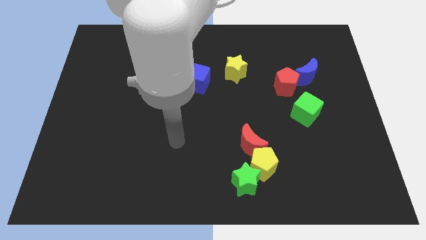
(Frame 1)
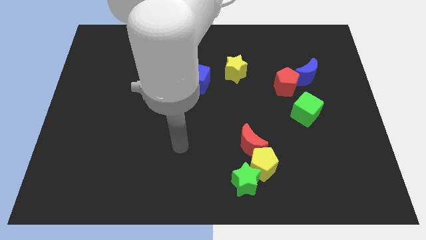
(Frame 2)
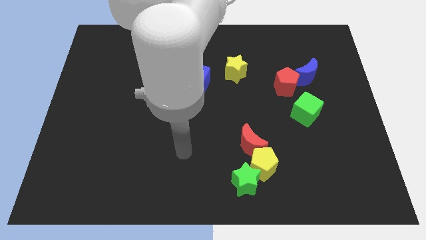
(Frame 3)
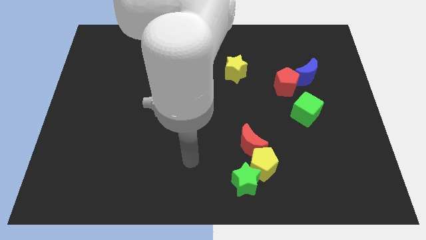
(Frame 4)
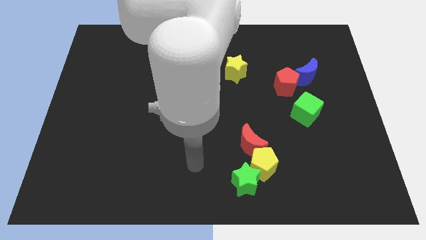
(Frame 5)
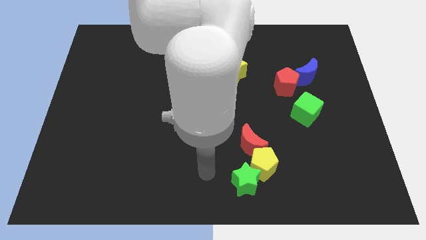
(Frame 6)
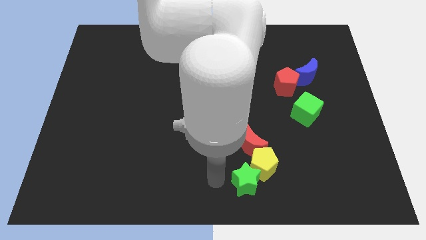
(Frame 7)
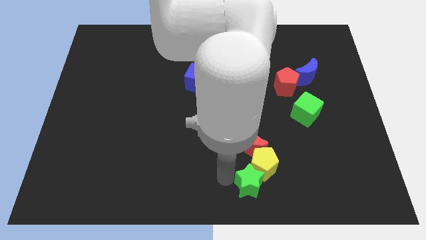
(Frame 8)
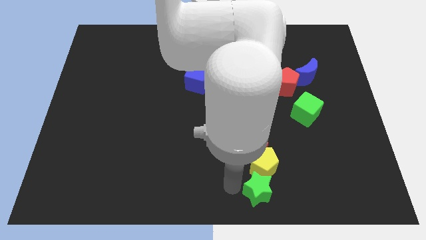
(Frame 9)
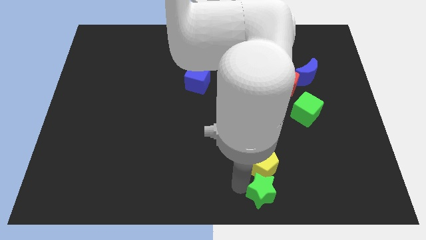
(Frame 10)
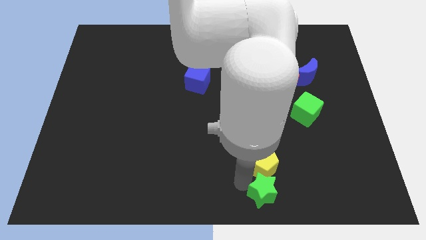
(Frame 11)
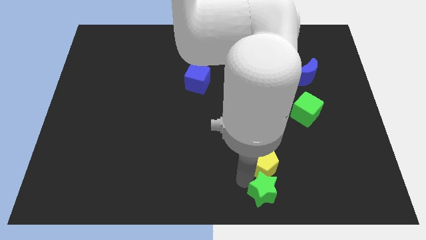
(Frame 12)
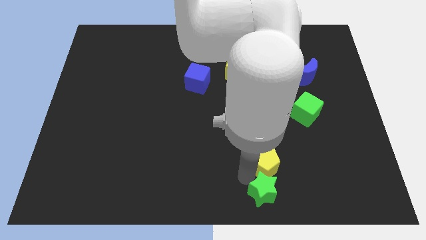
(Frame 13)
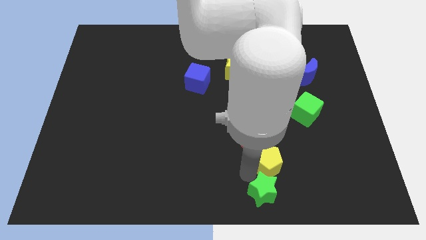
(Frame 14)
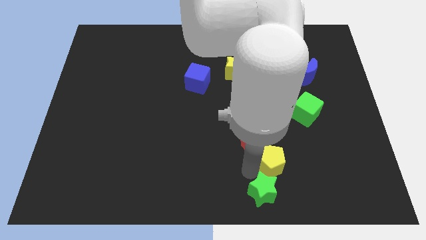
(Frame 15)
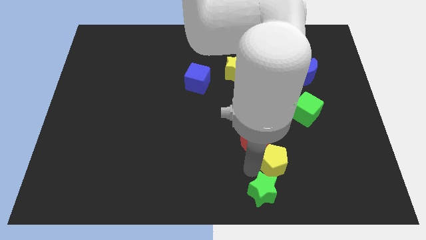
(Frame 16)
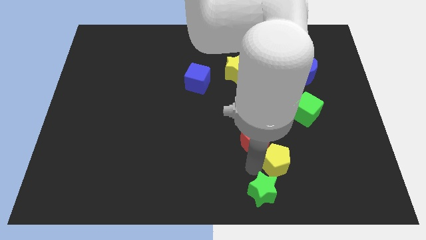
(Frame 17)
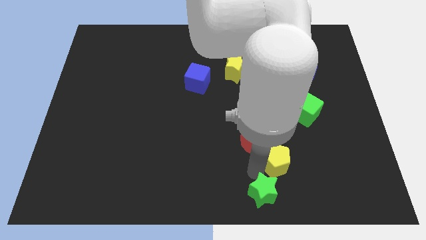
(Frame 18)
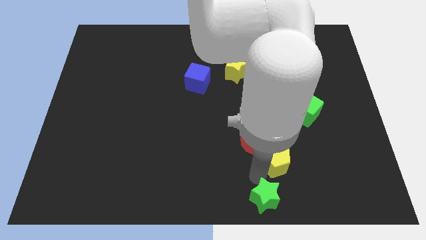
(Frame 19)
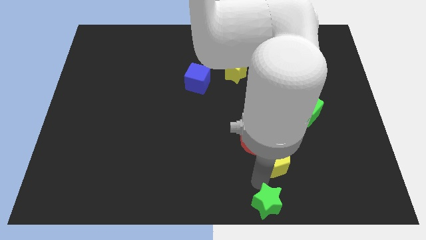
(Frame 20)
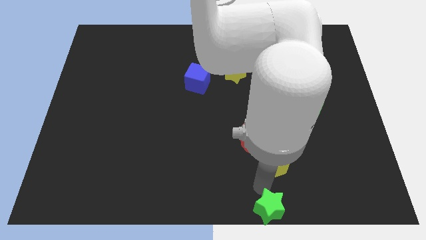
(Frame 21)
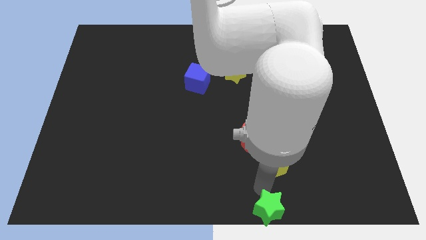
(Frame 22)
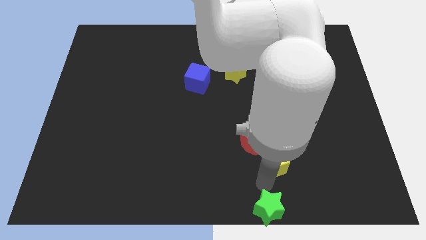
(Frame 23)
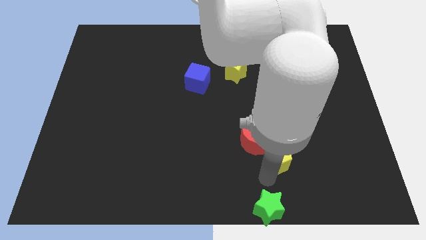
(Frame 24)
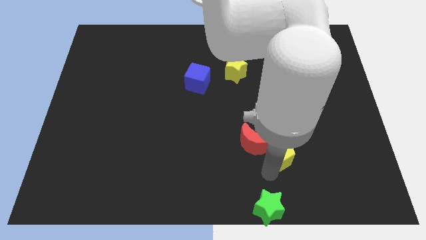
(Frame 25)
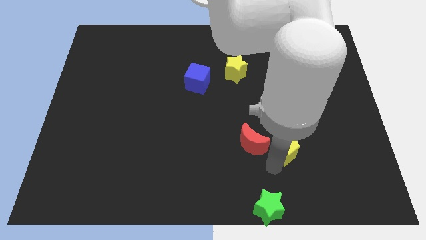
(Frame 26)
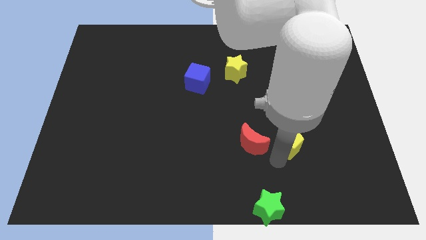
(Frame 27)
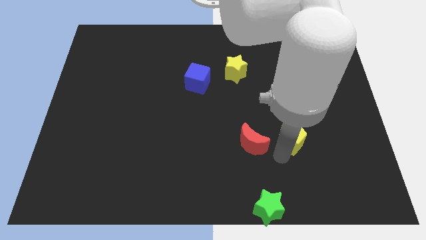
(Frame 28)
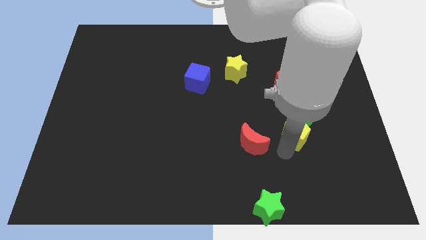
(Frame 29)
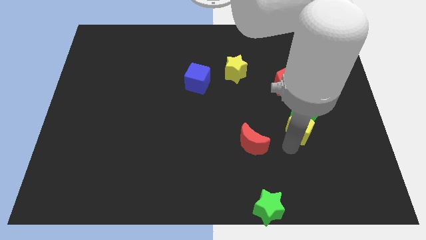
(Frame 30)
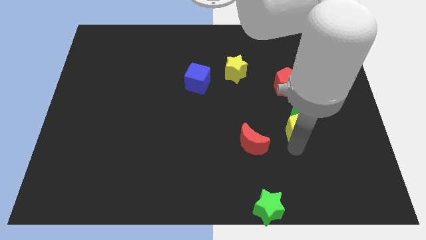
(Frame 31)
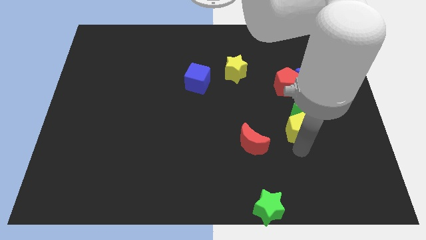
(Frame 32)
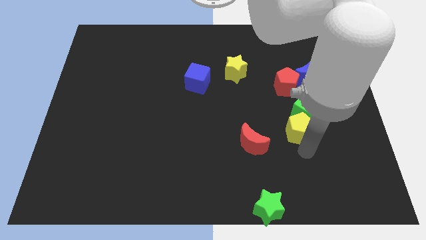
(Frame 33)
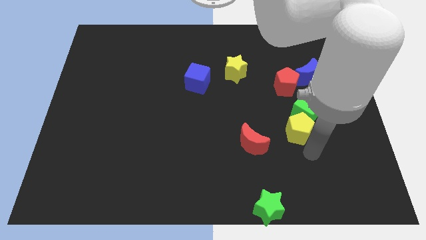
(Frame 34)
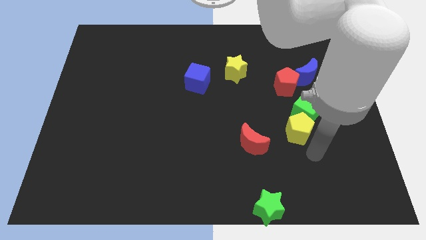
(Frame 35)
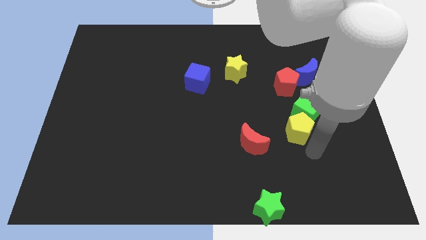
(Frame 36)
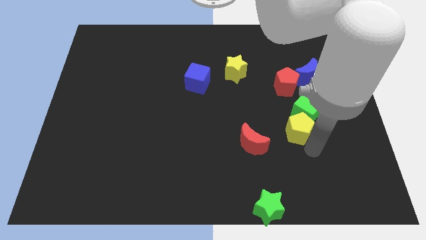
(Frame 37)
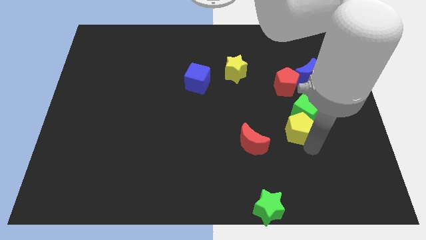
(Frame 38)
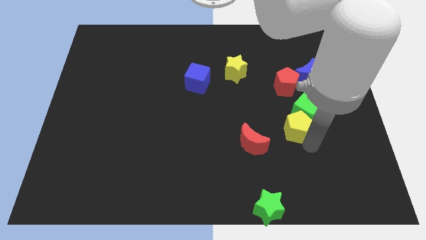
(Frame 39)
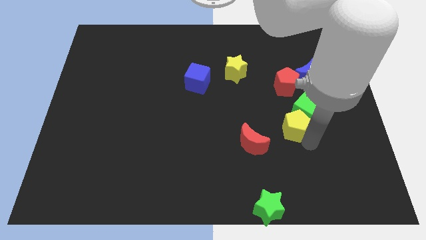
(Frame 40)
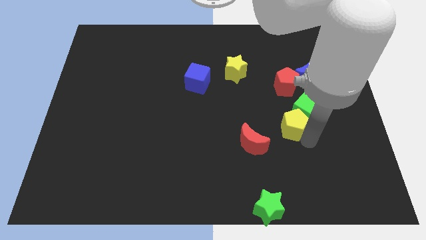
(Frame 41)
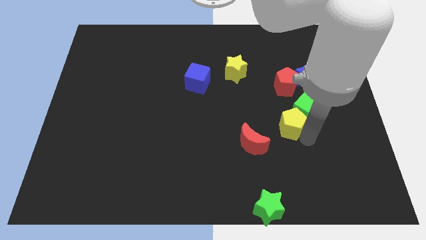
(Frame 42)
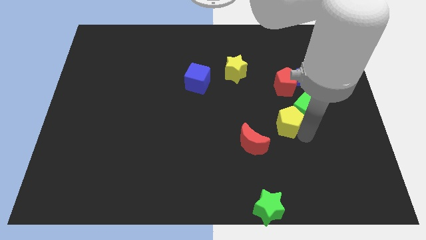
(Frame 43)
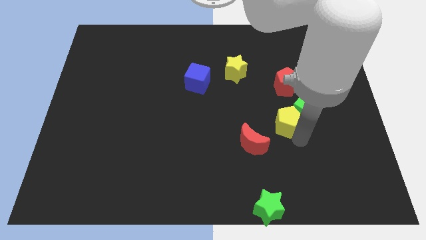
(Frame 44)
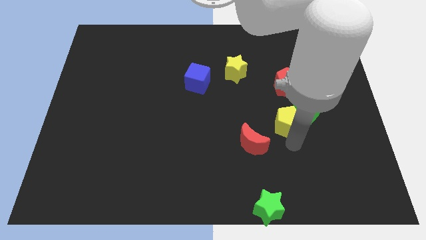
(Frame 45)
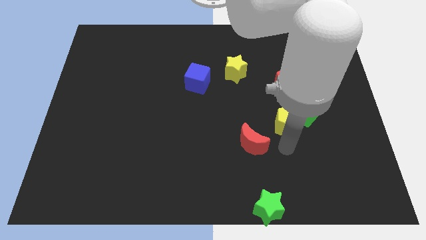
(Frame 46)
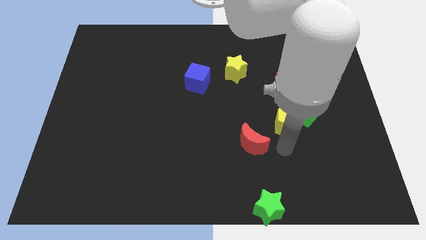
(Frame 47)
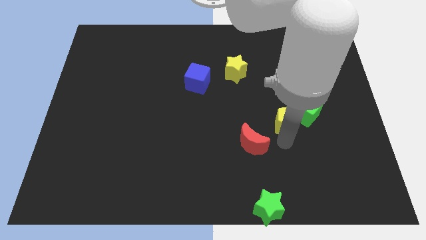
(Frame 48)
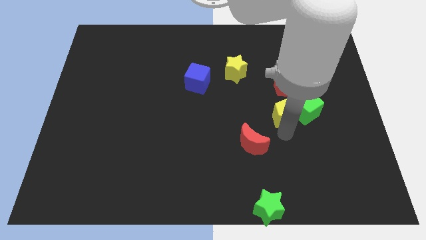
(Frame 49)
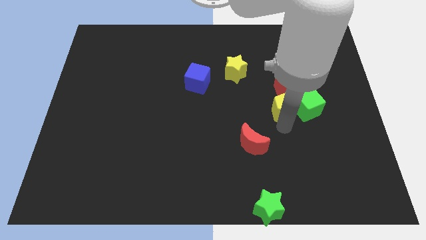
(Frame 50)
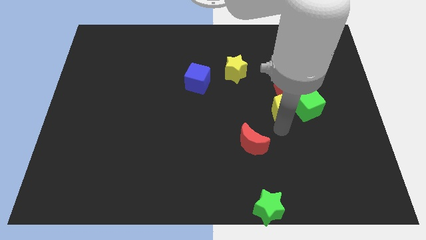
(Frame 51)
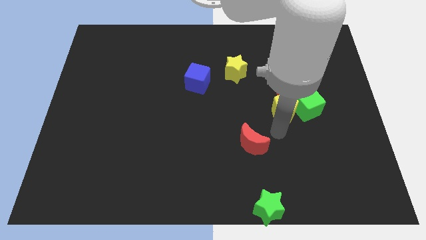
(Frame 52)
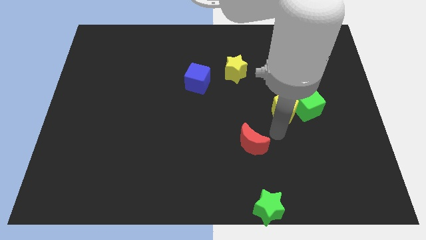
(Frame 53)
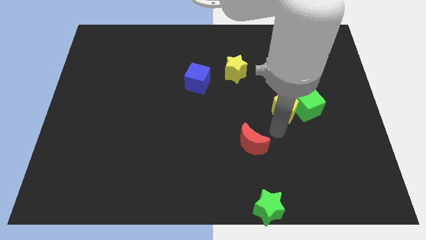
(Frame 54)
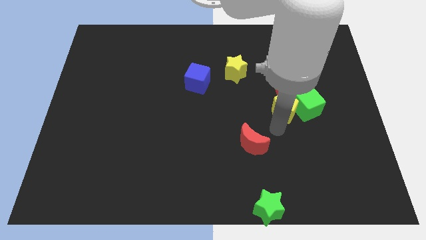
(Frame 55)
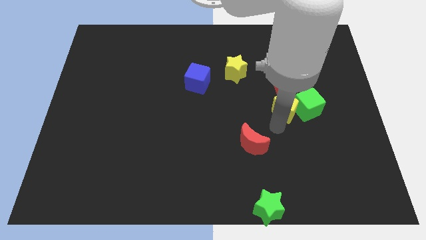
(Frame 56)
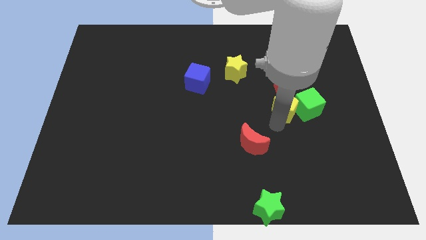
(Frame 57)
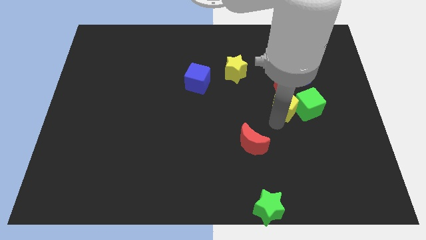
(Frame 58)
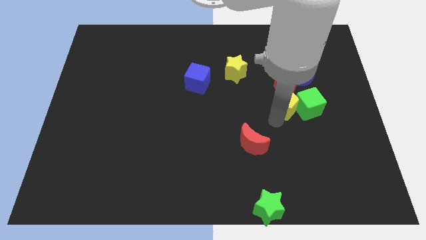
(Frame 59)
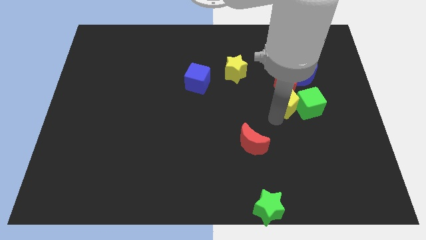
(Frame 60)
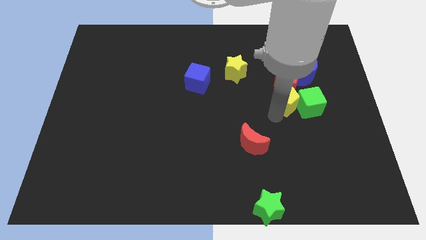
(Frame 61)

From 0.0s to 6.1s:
move the yellow pentagon next to the red pentagon

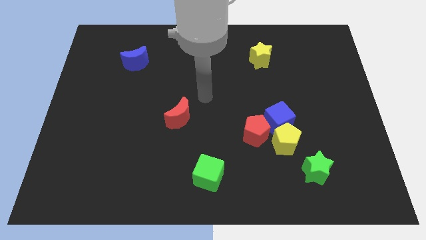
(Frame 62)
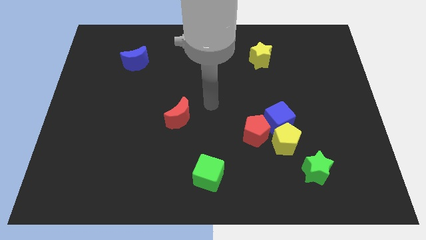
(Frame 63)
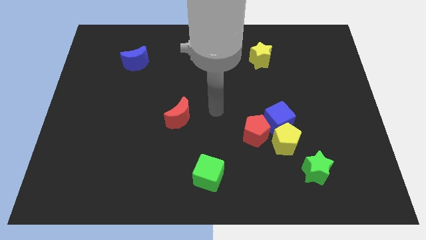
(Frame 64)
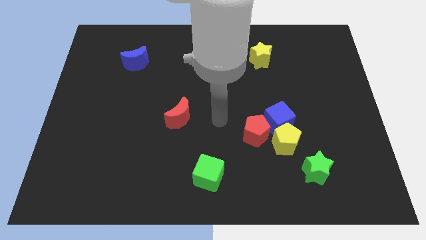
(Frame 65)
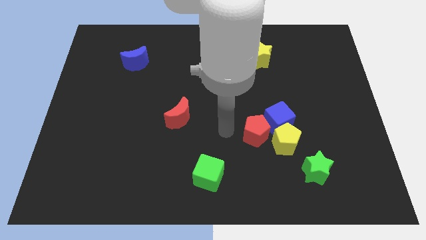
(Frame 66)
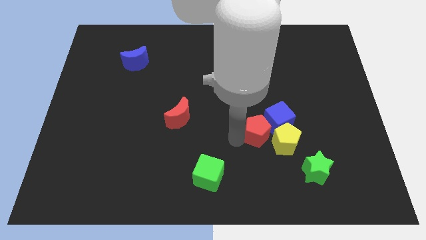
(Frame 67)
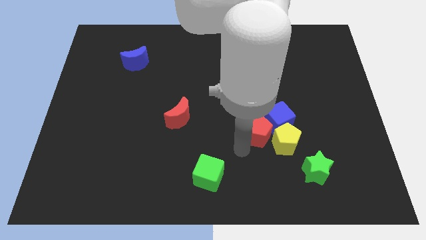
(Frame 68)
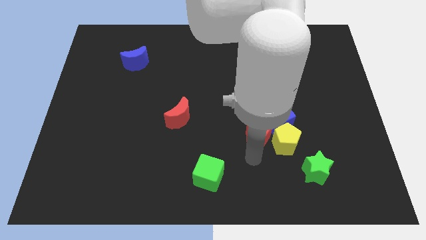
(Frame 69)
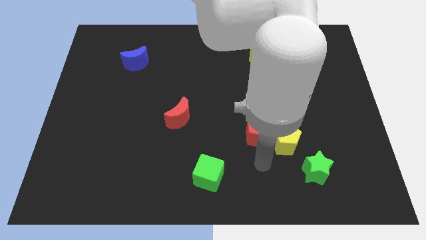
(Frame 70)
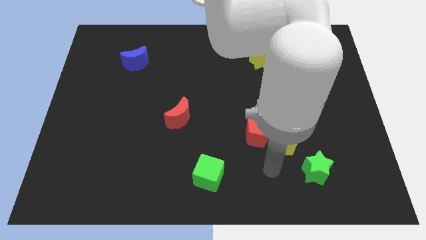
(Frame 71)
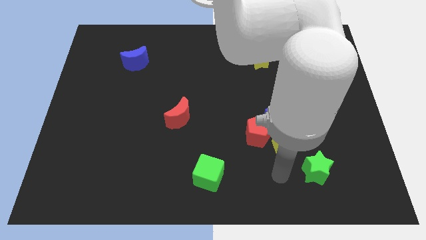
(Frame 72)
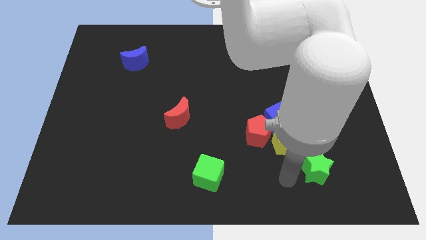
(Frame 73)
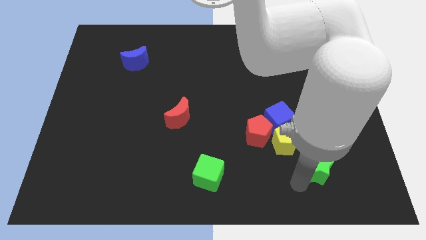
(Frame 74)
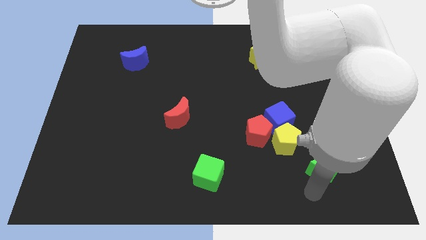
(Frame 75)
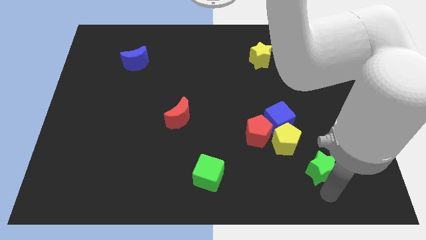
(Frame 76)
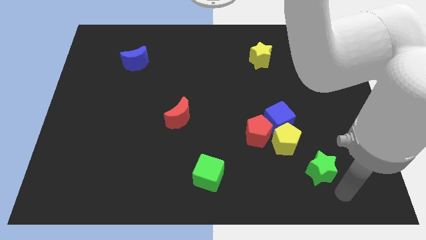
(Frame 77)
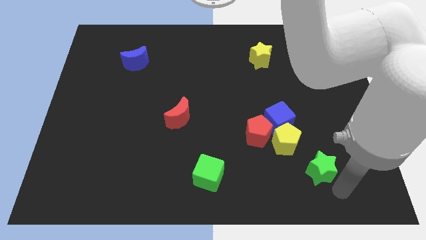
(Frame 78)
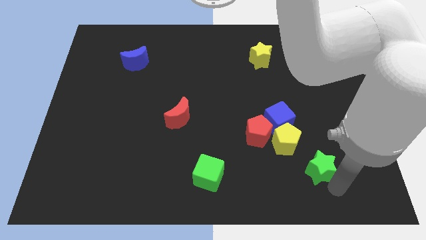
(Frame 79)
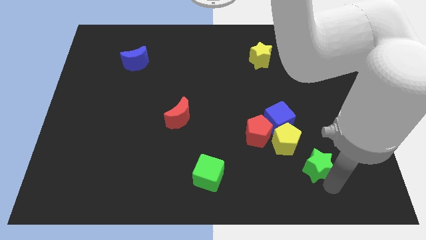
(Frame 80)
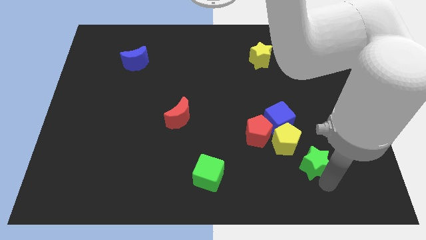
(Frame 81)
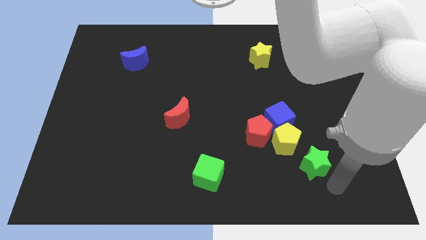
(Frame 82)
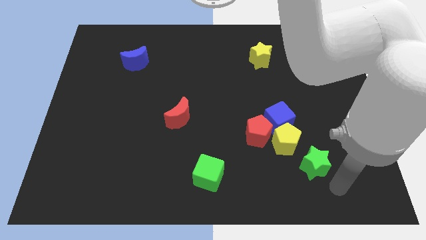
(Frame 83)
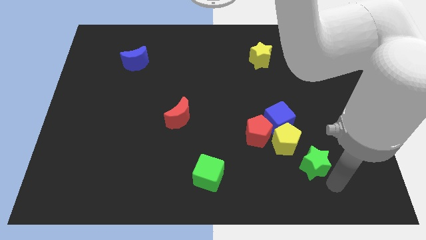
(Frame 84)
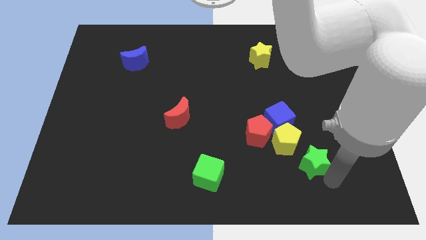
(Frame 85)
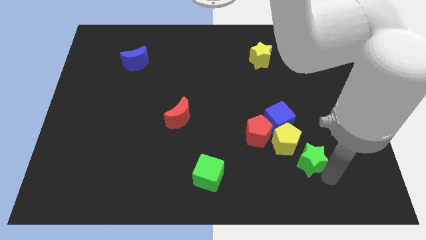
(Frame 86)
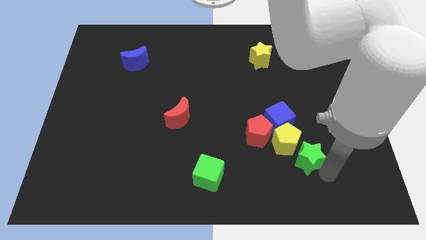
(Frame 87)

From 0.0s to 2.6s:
slide the green star towards the yellow pentagon
